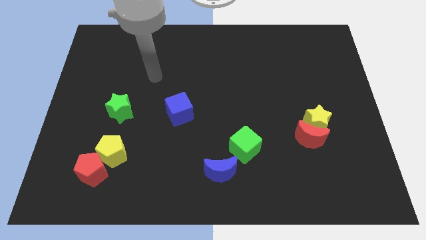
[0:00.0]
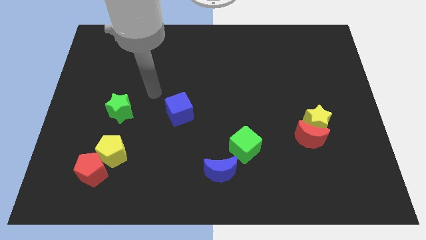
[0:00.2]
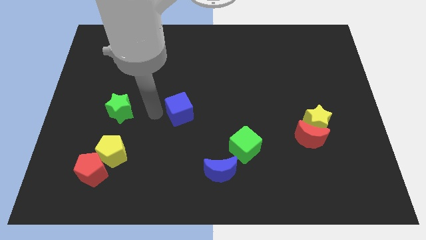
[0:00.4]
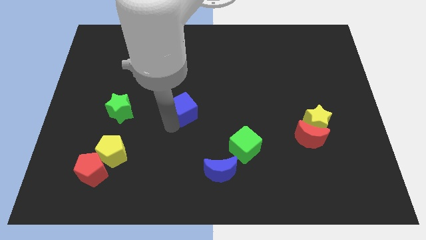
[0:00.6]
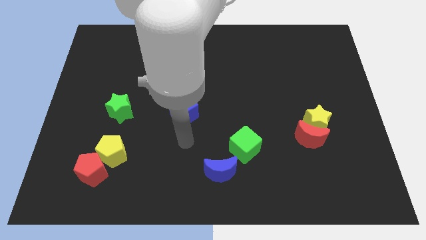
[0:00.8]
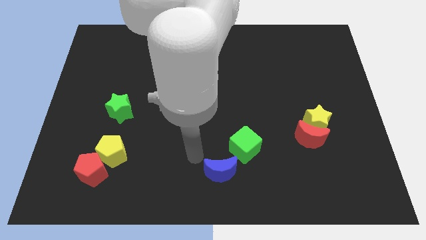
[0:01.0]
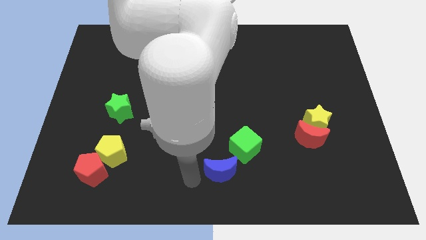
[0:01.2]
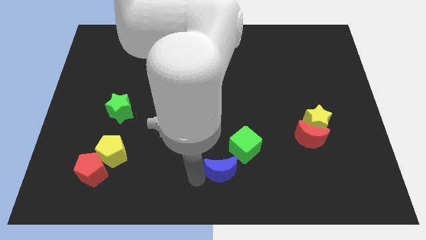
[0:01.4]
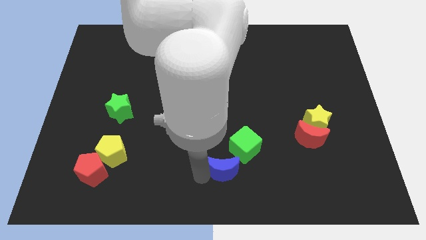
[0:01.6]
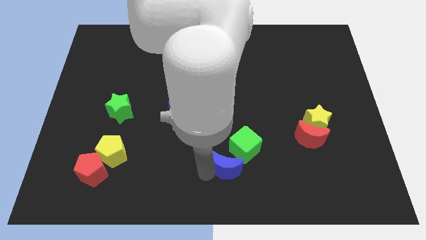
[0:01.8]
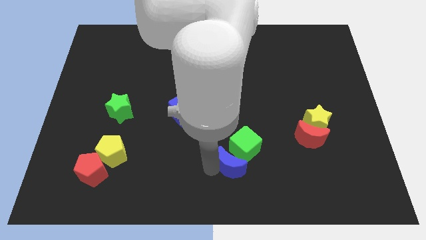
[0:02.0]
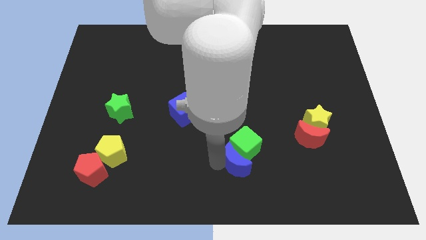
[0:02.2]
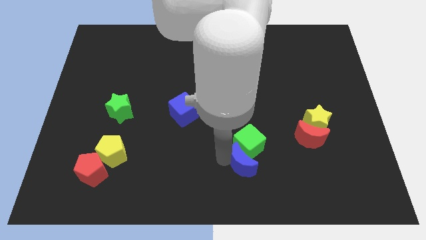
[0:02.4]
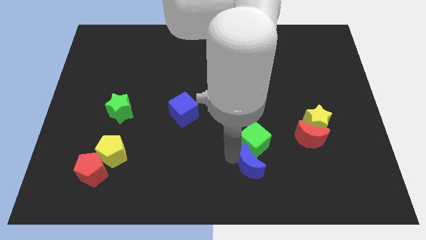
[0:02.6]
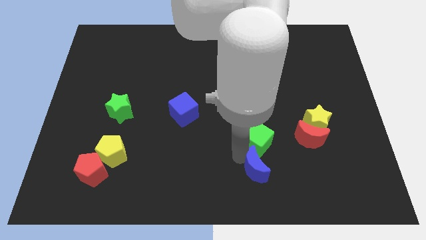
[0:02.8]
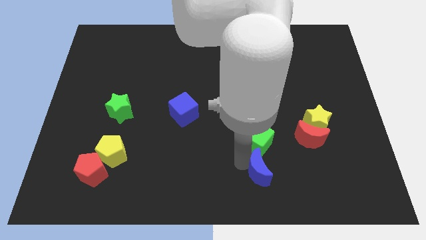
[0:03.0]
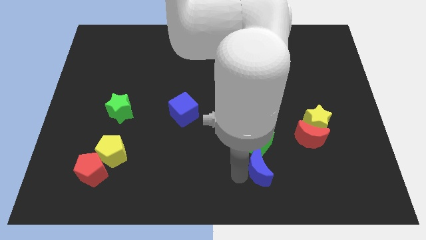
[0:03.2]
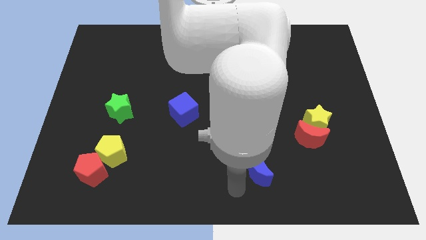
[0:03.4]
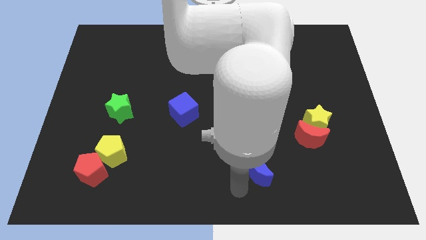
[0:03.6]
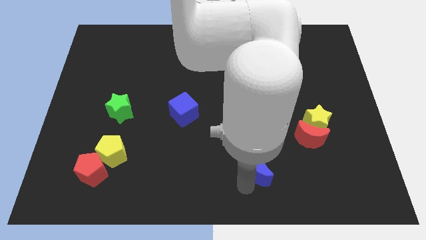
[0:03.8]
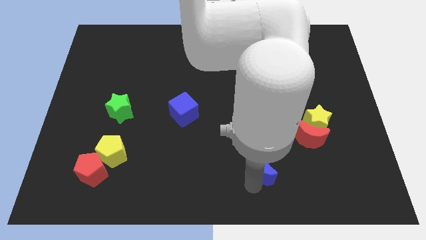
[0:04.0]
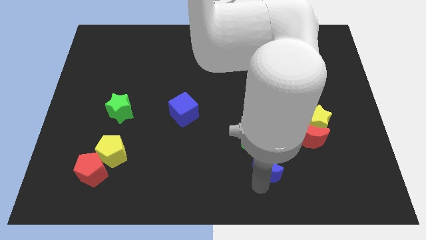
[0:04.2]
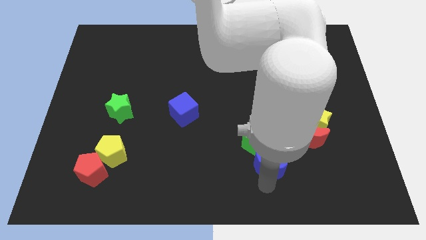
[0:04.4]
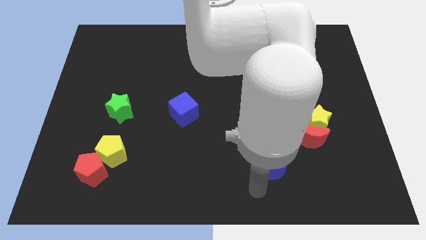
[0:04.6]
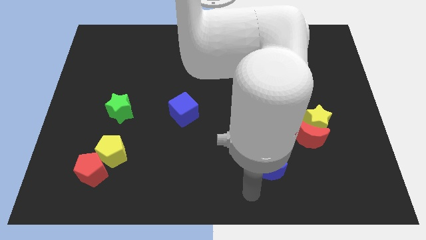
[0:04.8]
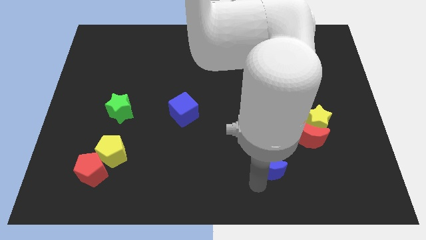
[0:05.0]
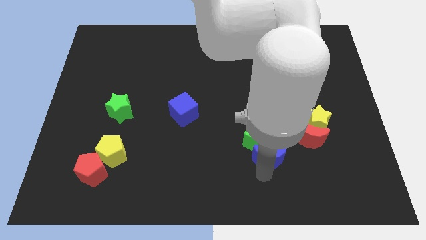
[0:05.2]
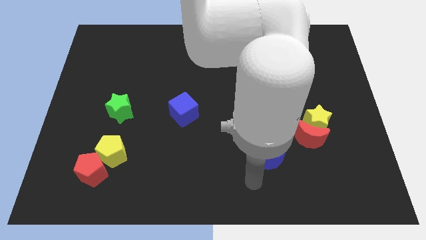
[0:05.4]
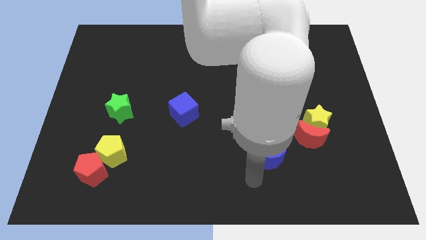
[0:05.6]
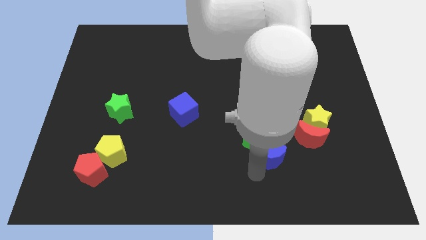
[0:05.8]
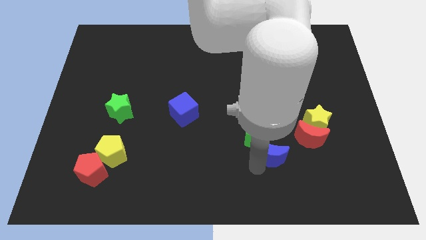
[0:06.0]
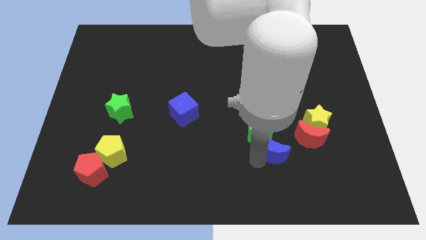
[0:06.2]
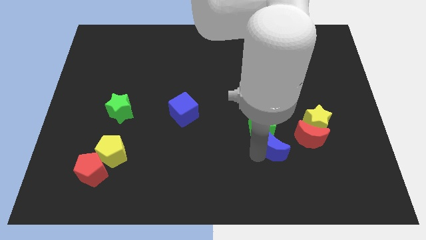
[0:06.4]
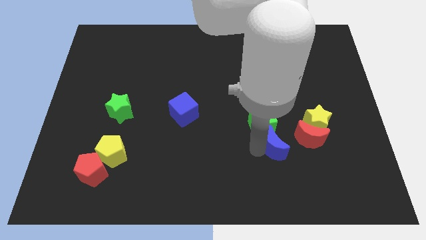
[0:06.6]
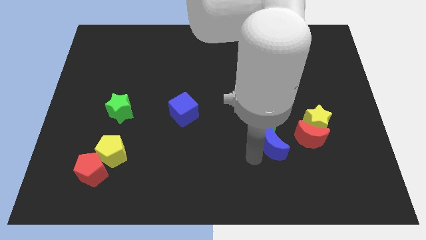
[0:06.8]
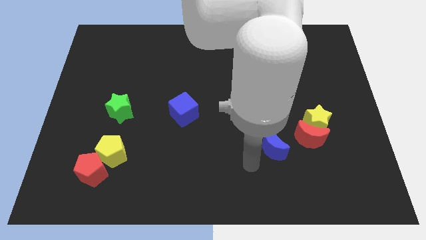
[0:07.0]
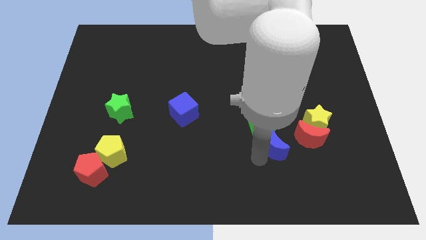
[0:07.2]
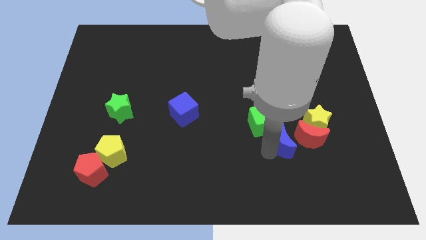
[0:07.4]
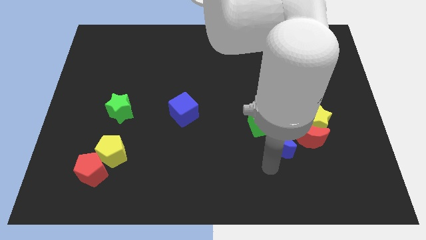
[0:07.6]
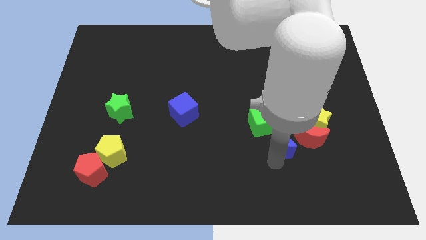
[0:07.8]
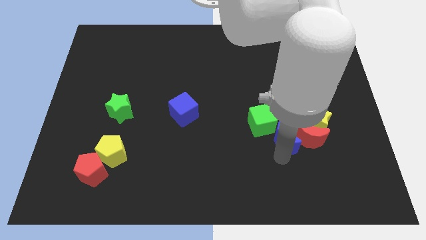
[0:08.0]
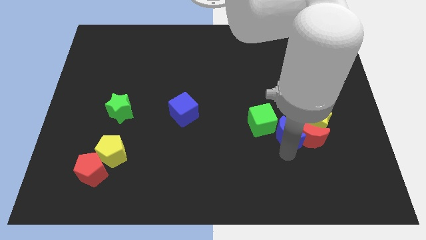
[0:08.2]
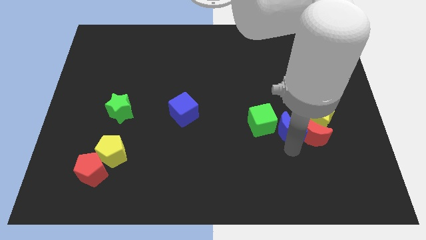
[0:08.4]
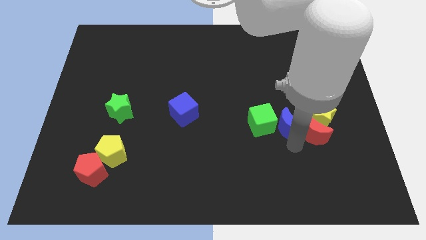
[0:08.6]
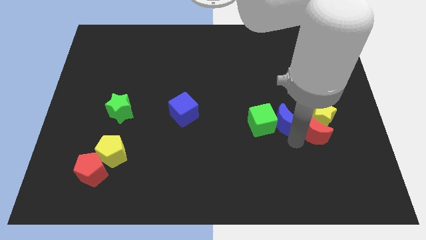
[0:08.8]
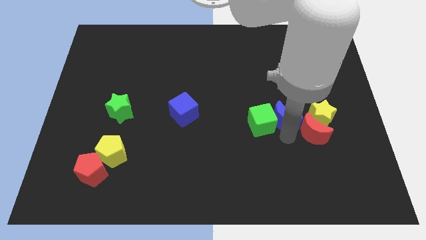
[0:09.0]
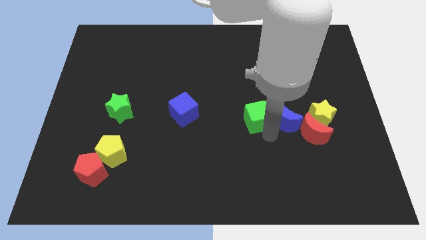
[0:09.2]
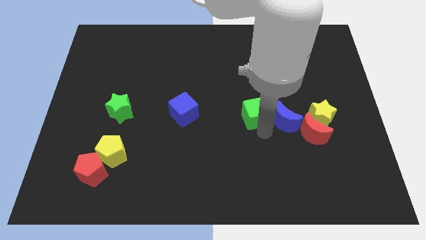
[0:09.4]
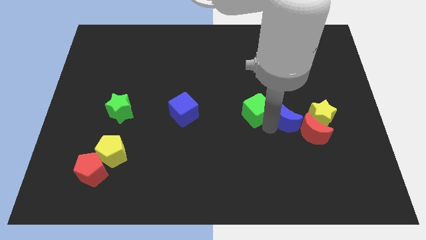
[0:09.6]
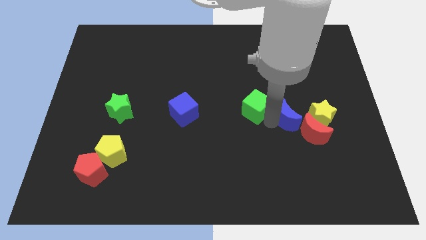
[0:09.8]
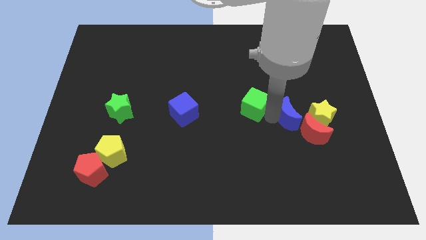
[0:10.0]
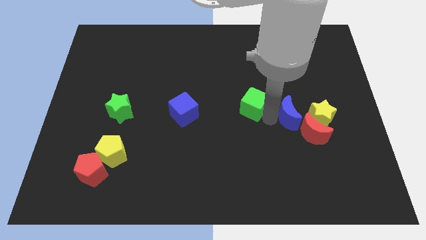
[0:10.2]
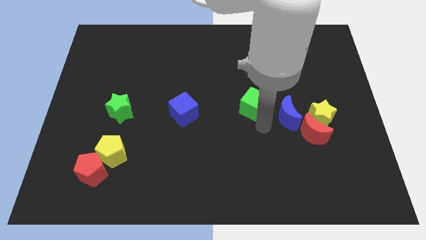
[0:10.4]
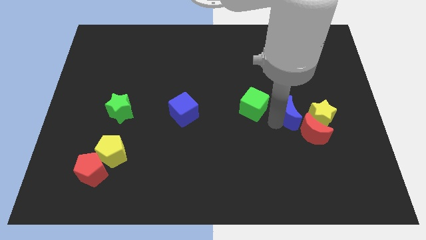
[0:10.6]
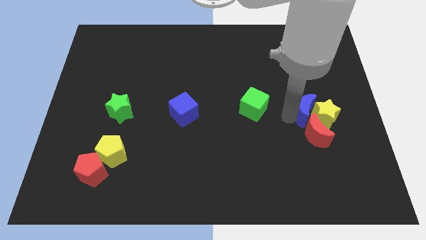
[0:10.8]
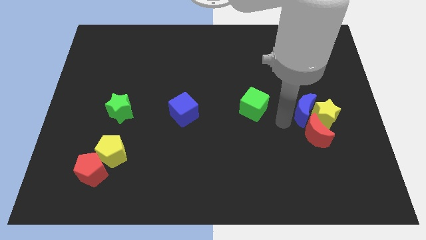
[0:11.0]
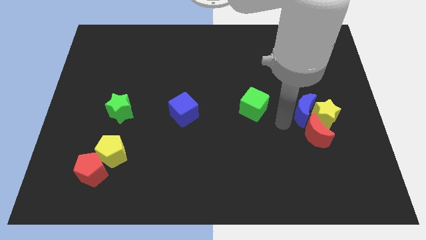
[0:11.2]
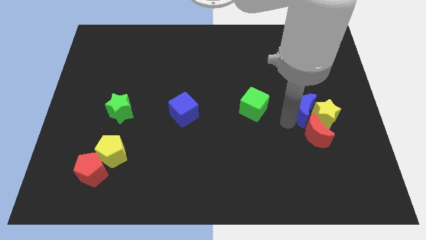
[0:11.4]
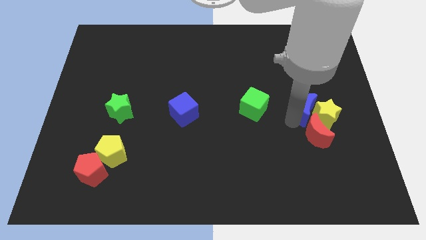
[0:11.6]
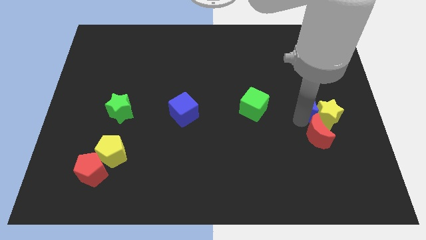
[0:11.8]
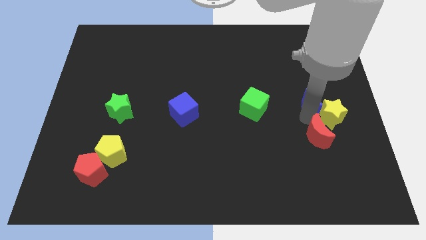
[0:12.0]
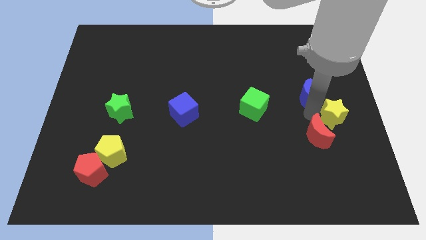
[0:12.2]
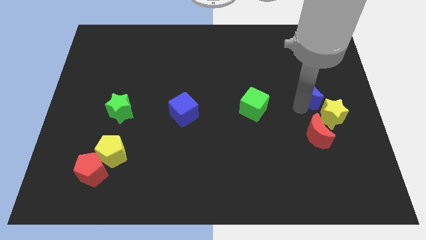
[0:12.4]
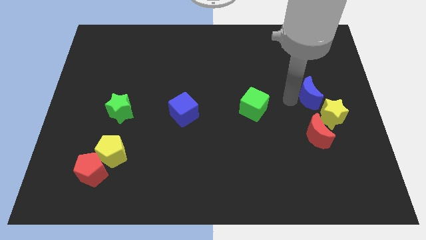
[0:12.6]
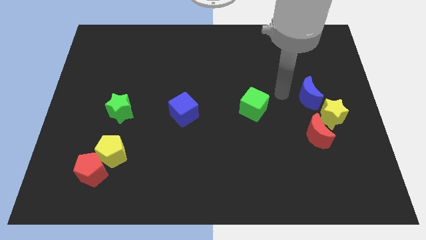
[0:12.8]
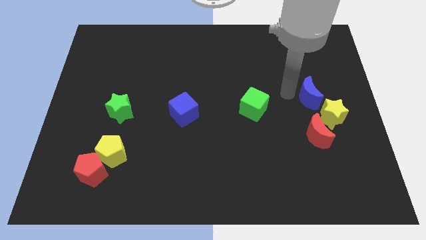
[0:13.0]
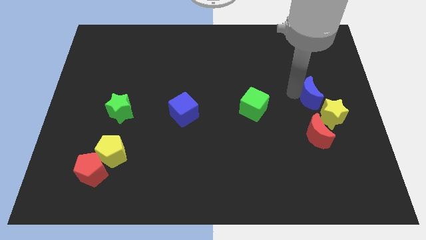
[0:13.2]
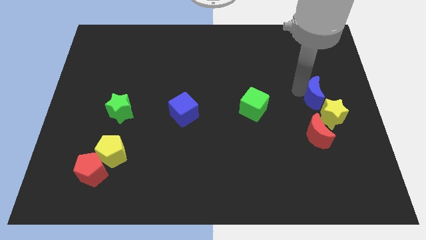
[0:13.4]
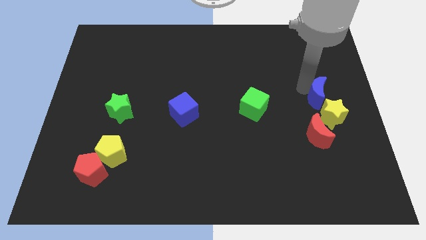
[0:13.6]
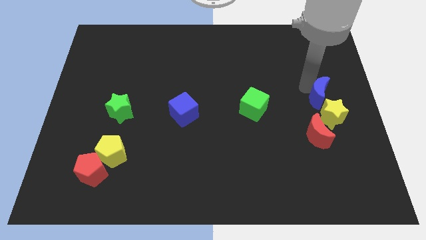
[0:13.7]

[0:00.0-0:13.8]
slide the blue moon to the center right

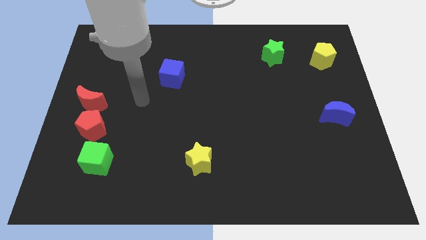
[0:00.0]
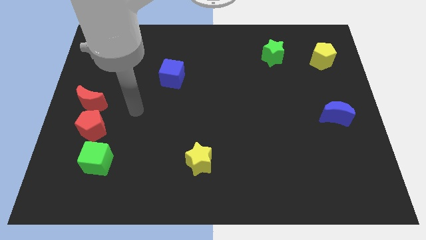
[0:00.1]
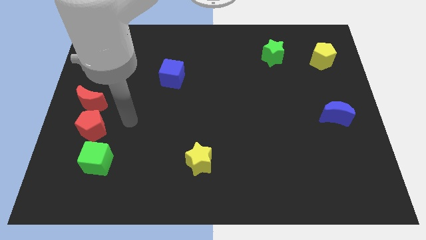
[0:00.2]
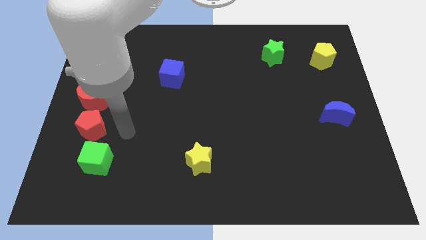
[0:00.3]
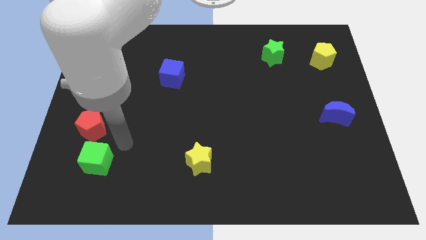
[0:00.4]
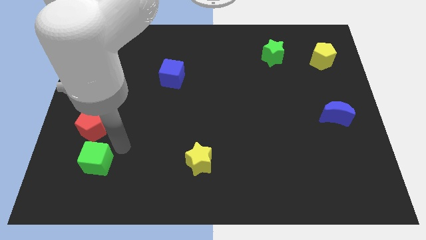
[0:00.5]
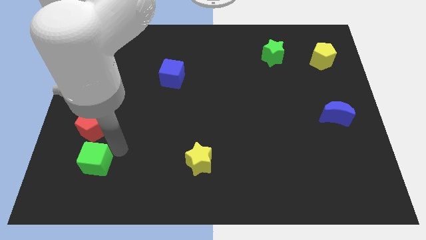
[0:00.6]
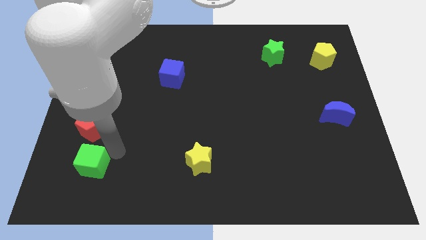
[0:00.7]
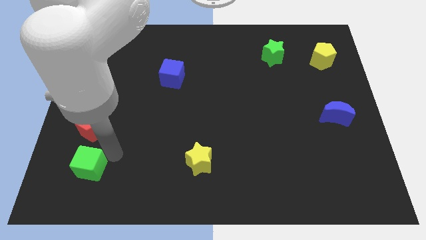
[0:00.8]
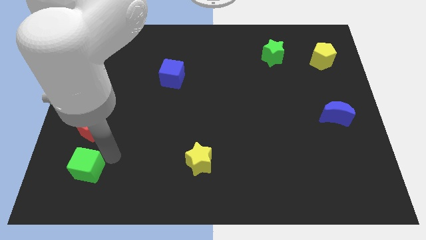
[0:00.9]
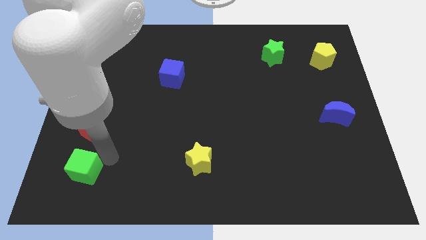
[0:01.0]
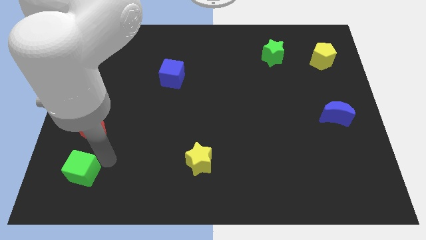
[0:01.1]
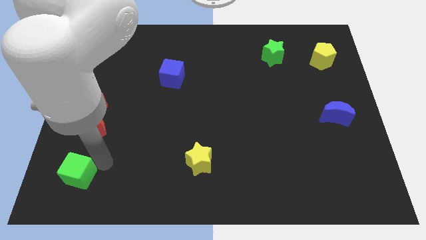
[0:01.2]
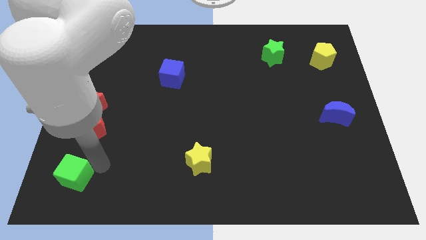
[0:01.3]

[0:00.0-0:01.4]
put the green cube to the lower left corner
